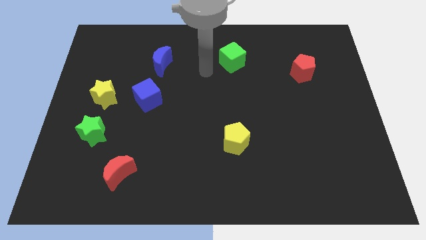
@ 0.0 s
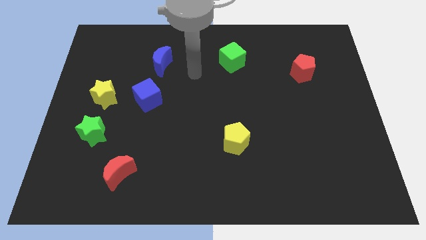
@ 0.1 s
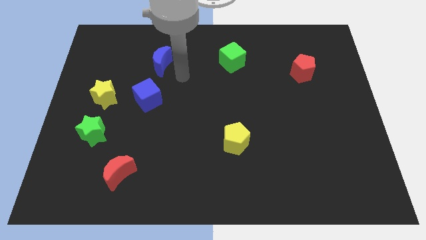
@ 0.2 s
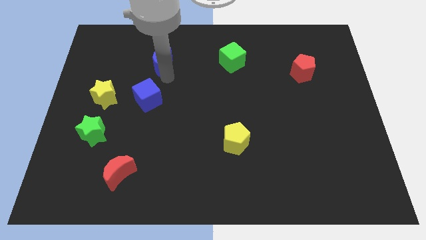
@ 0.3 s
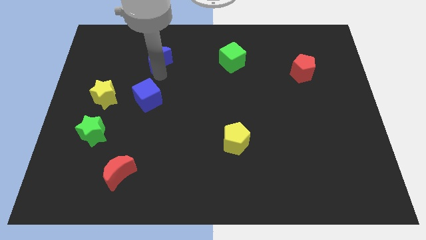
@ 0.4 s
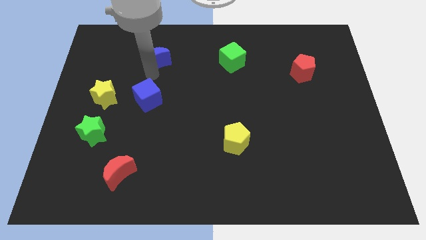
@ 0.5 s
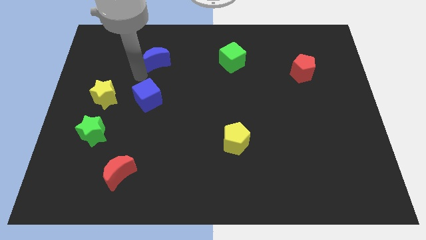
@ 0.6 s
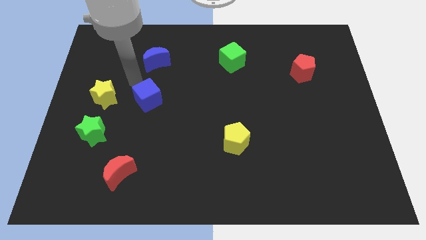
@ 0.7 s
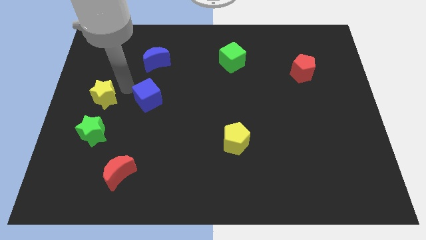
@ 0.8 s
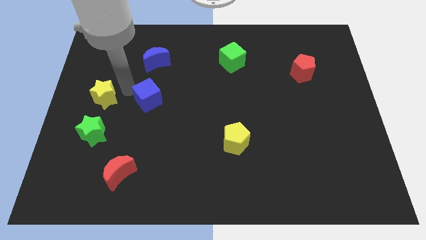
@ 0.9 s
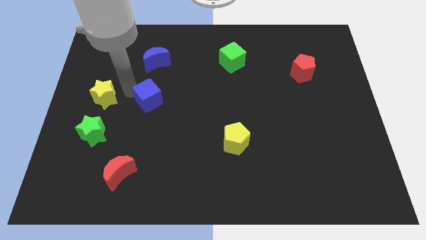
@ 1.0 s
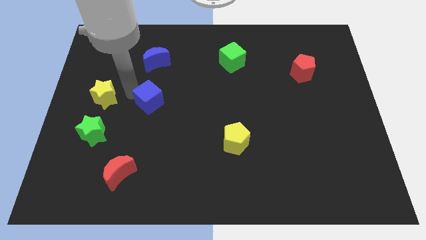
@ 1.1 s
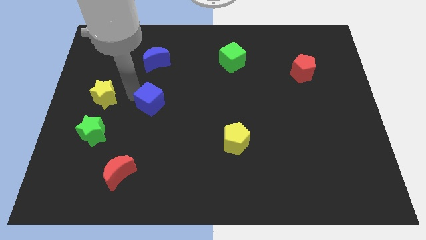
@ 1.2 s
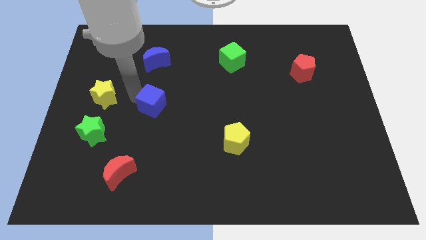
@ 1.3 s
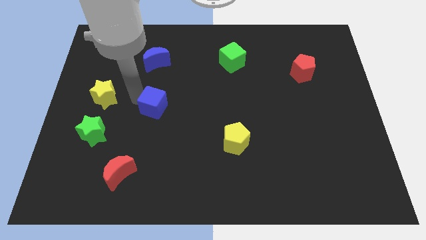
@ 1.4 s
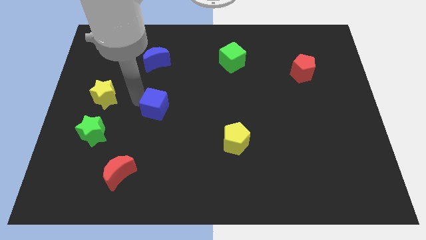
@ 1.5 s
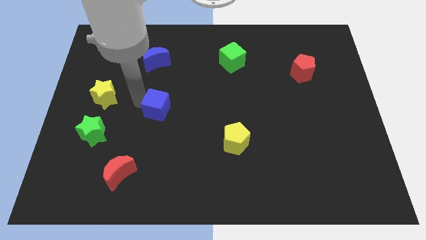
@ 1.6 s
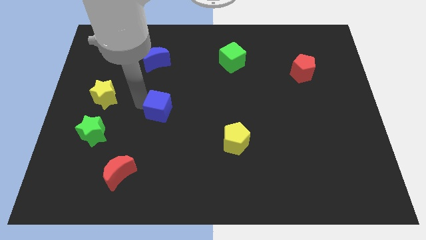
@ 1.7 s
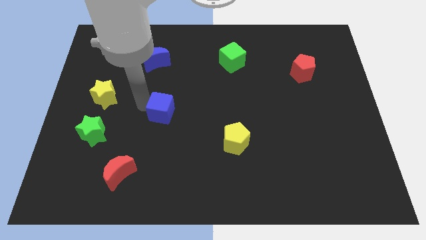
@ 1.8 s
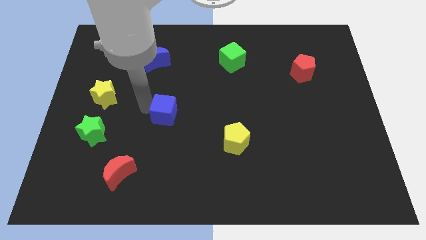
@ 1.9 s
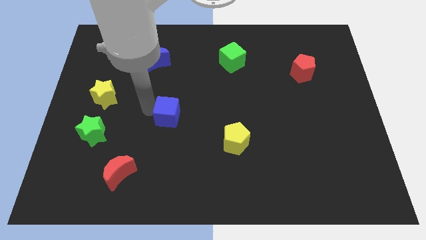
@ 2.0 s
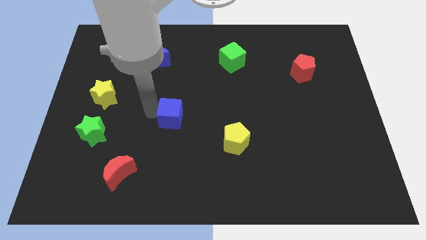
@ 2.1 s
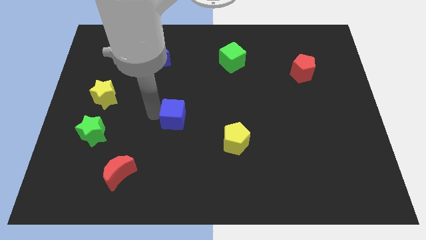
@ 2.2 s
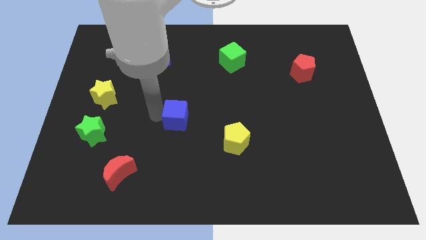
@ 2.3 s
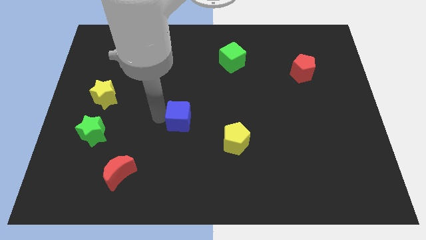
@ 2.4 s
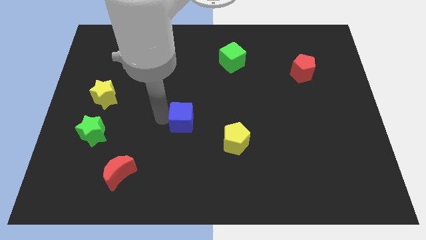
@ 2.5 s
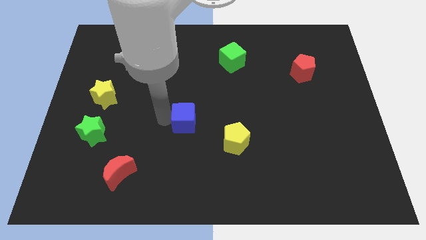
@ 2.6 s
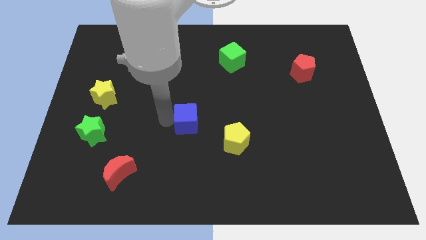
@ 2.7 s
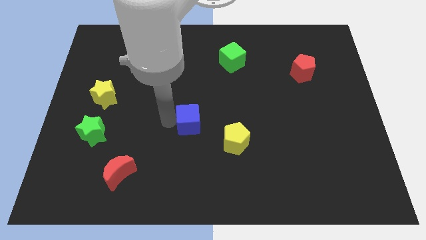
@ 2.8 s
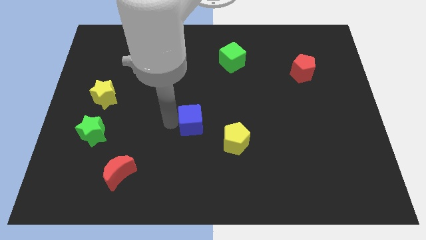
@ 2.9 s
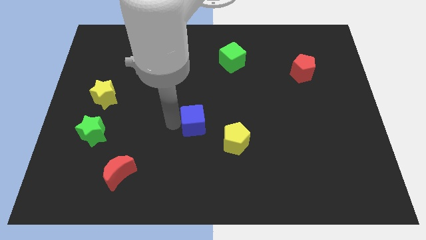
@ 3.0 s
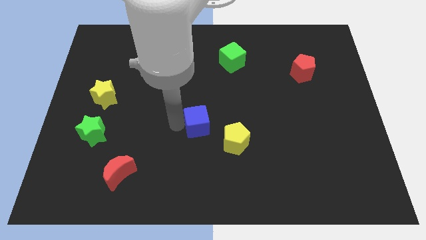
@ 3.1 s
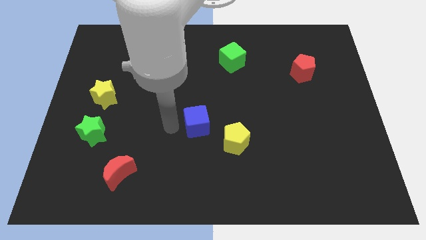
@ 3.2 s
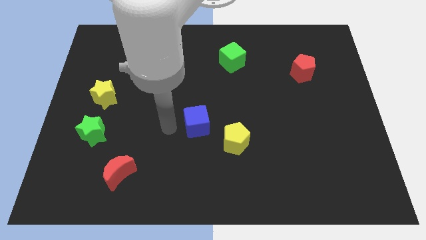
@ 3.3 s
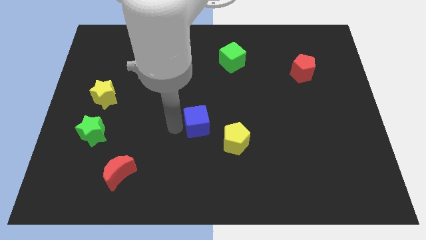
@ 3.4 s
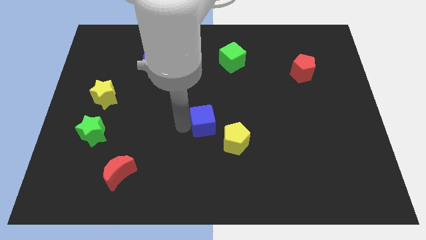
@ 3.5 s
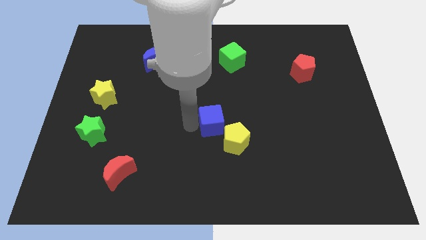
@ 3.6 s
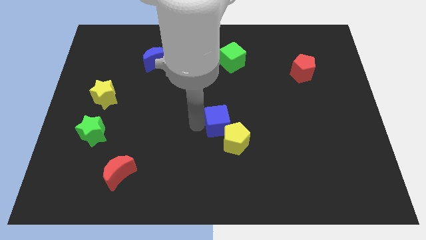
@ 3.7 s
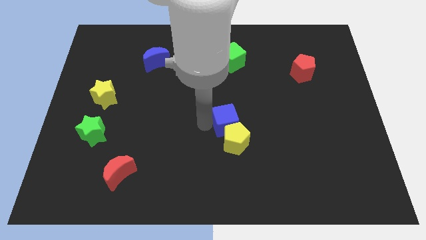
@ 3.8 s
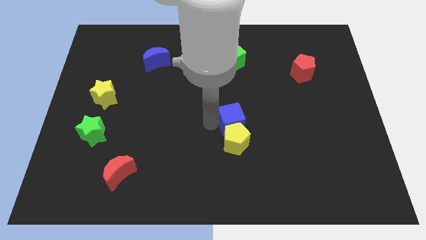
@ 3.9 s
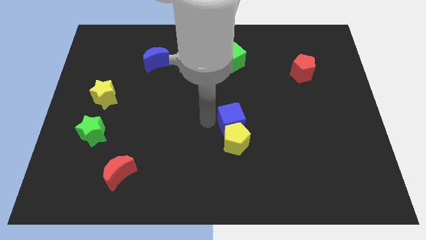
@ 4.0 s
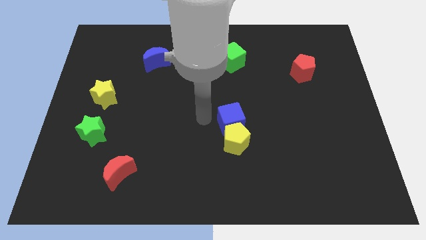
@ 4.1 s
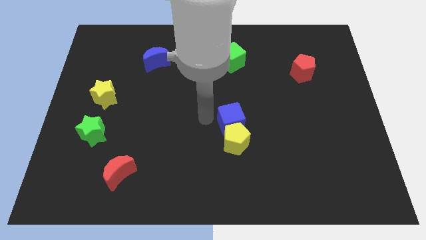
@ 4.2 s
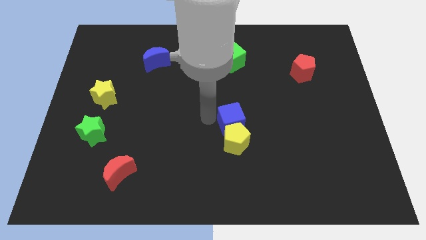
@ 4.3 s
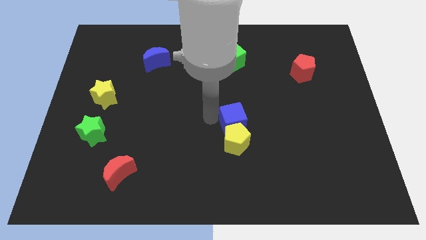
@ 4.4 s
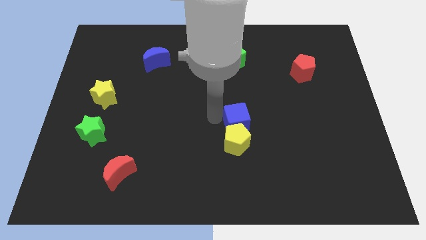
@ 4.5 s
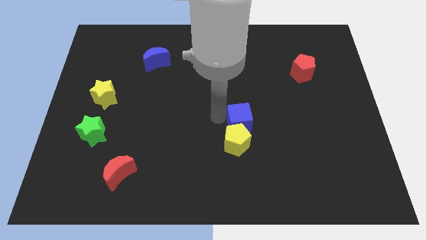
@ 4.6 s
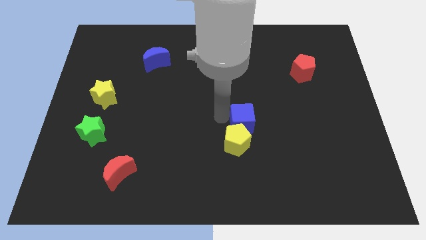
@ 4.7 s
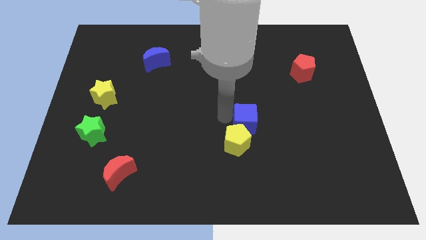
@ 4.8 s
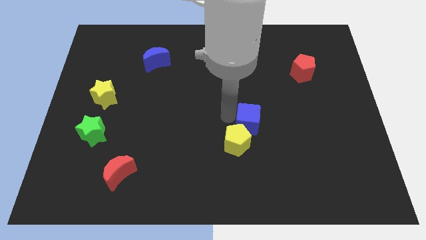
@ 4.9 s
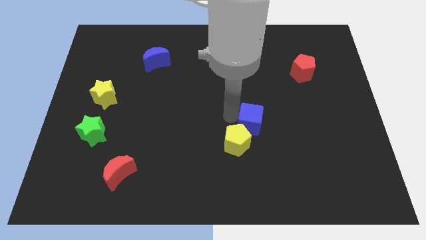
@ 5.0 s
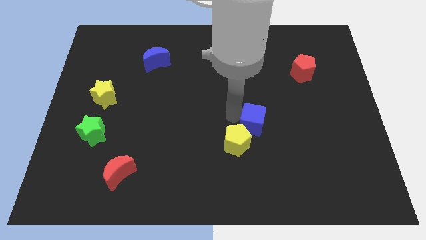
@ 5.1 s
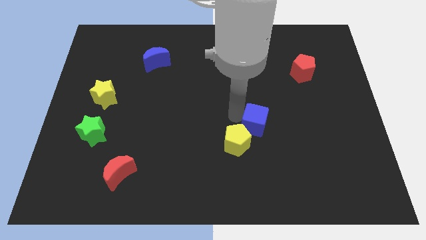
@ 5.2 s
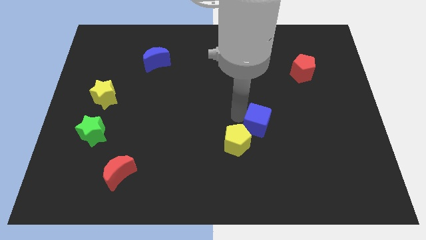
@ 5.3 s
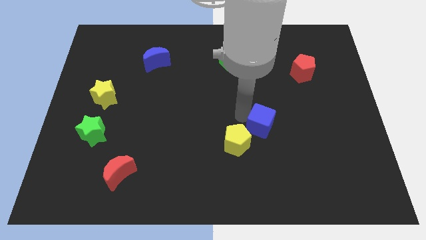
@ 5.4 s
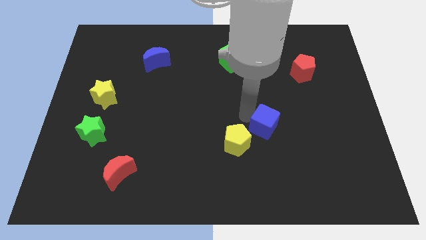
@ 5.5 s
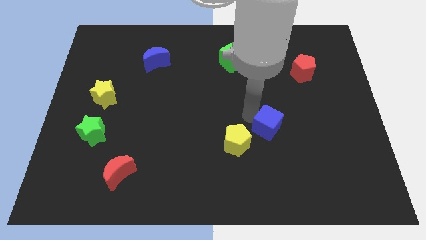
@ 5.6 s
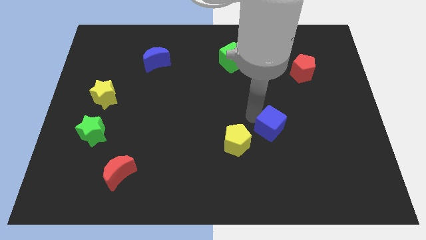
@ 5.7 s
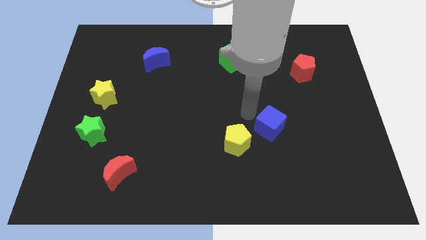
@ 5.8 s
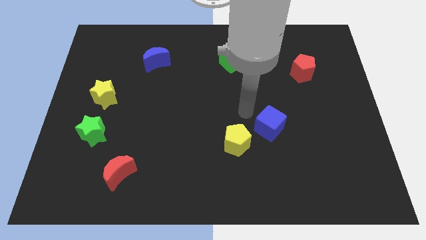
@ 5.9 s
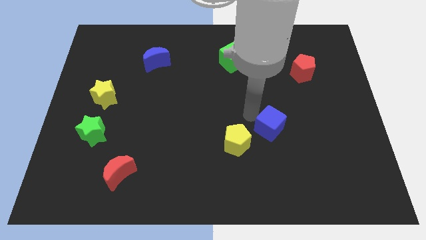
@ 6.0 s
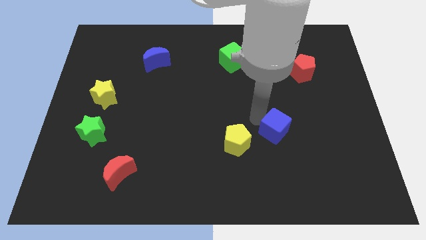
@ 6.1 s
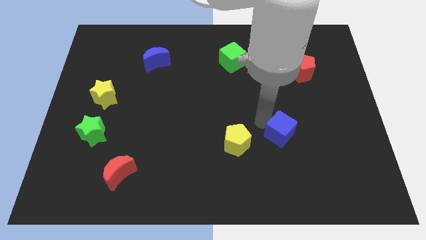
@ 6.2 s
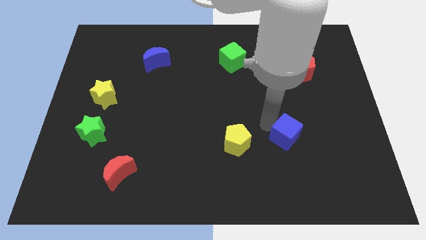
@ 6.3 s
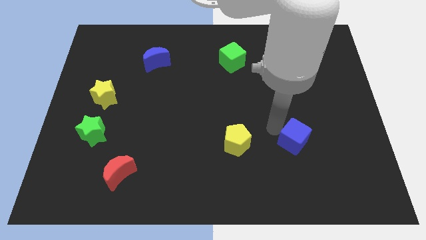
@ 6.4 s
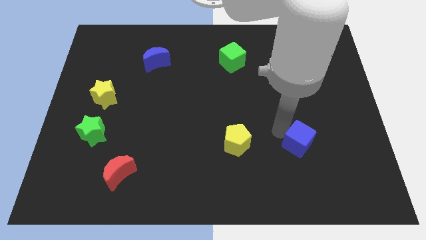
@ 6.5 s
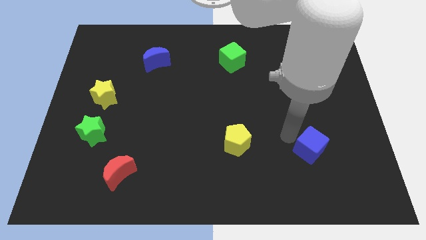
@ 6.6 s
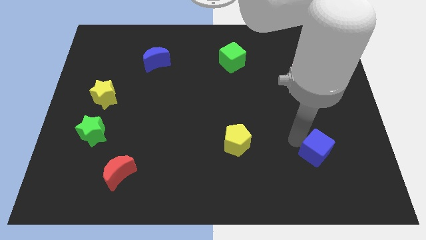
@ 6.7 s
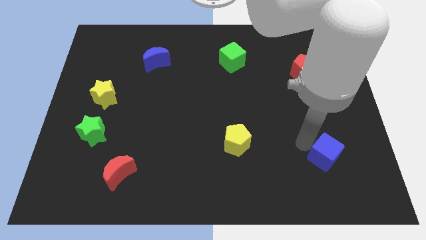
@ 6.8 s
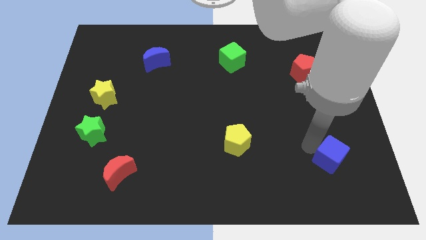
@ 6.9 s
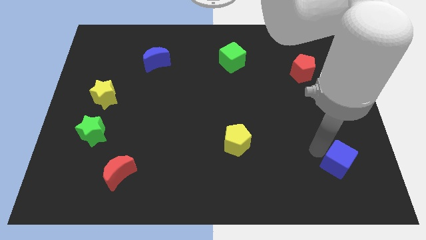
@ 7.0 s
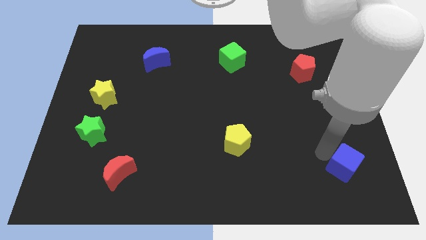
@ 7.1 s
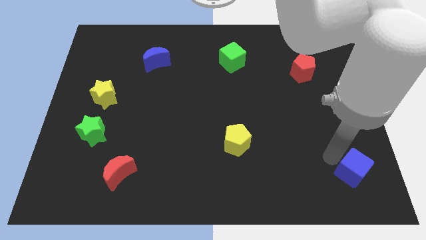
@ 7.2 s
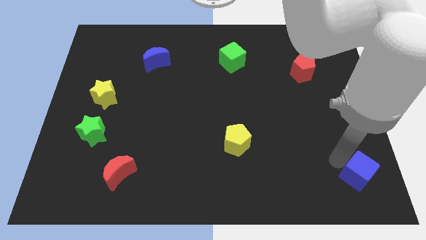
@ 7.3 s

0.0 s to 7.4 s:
slide the blue cube to the bottom right
